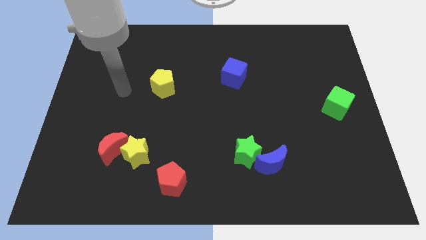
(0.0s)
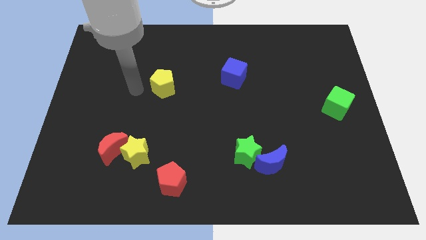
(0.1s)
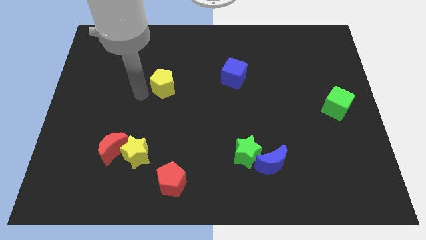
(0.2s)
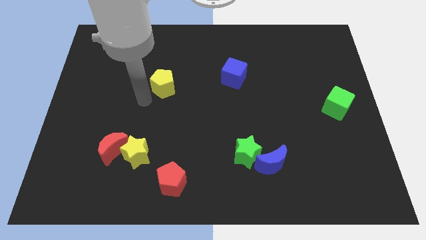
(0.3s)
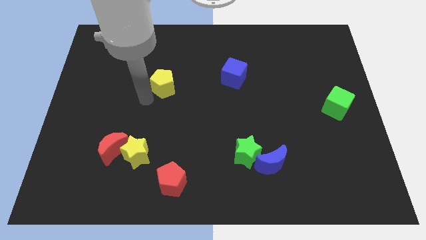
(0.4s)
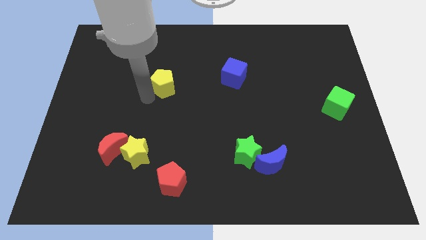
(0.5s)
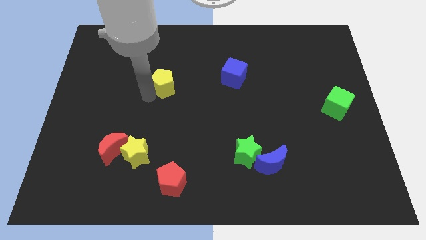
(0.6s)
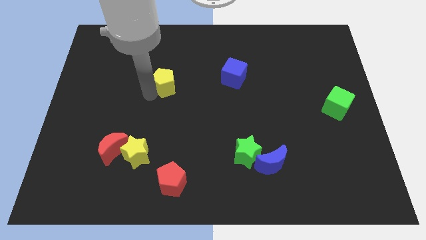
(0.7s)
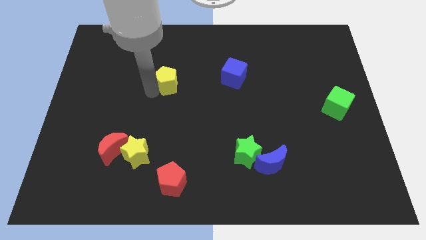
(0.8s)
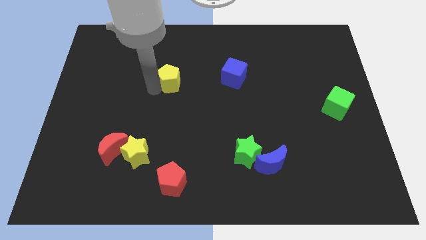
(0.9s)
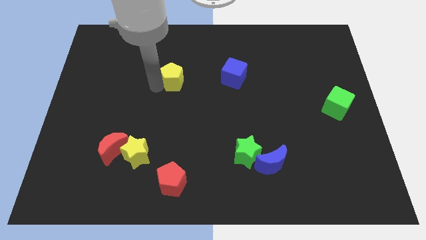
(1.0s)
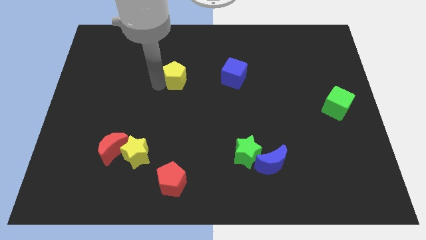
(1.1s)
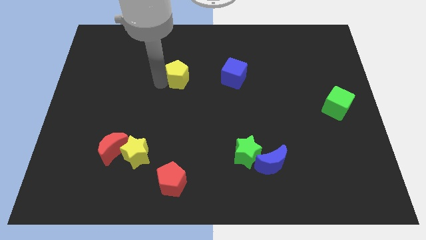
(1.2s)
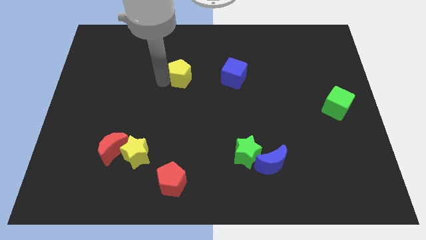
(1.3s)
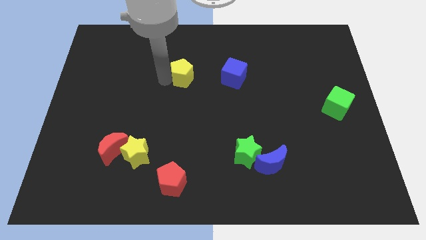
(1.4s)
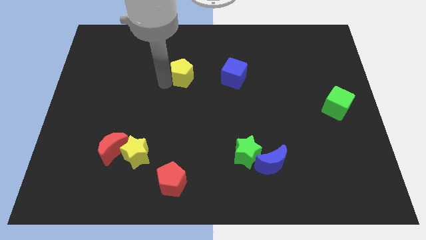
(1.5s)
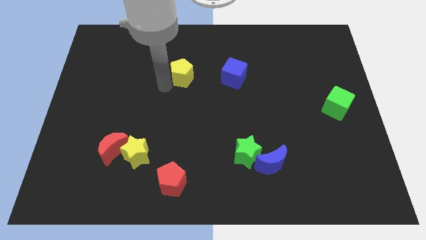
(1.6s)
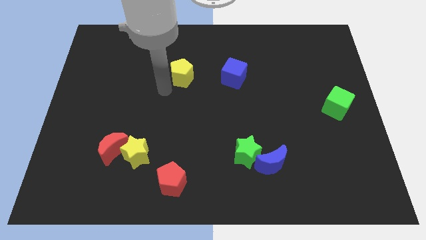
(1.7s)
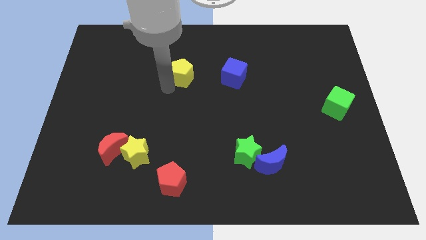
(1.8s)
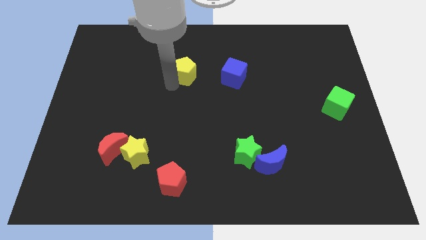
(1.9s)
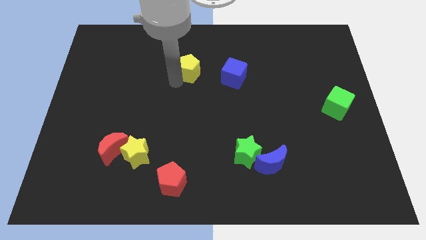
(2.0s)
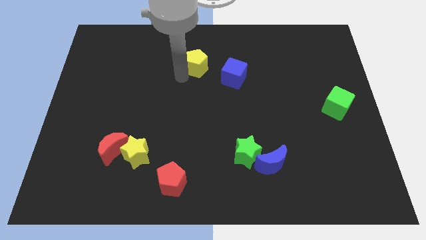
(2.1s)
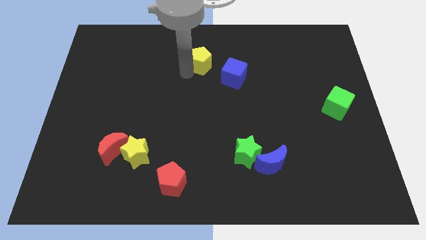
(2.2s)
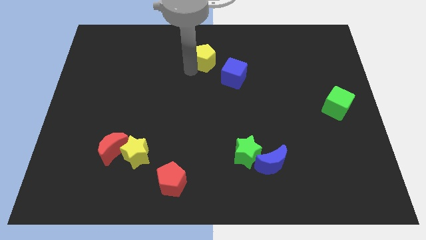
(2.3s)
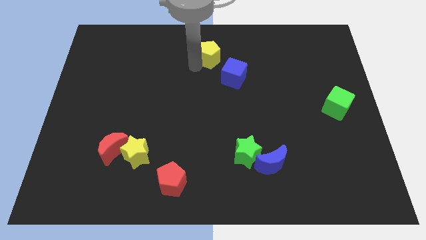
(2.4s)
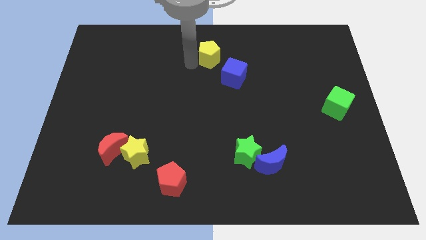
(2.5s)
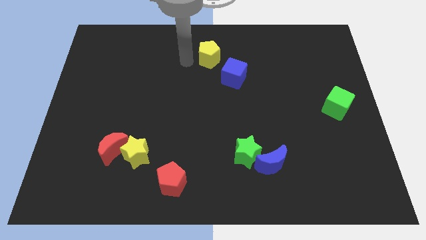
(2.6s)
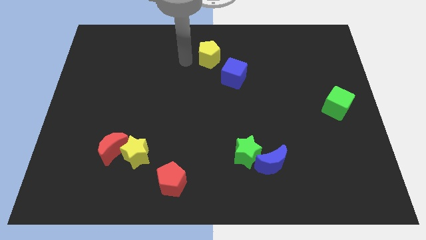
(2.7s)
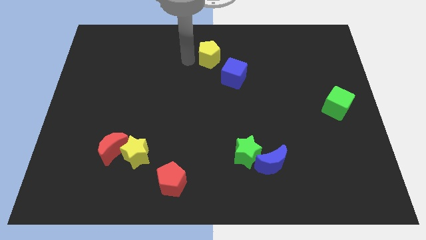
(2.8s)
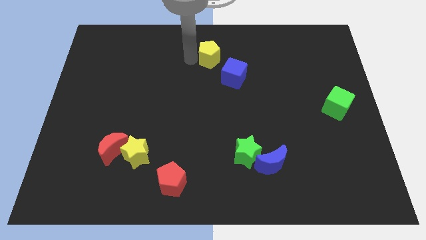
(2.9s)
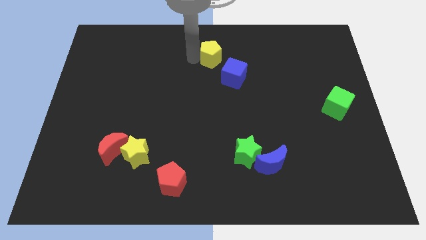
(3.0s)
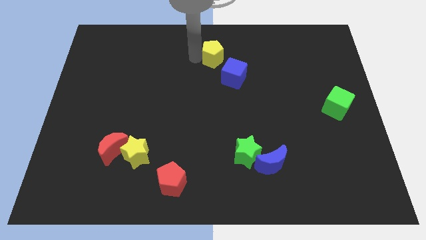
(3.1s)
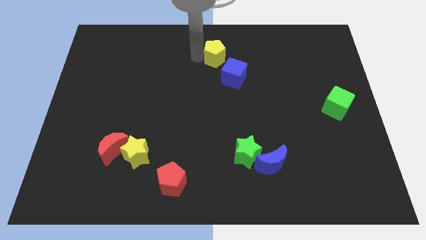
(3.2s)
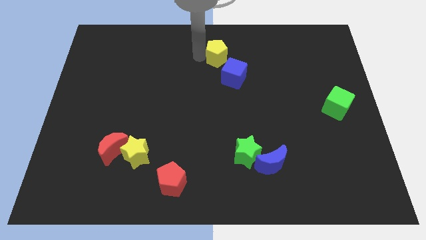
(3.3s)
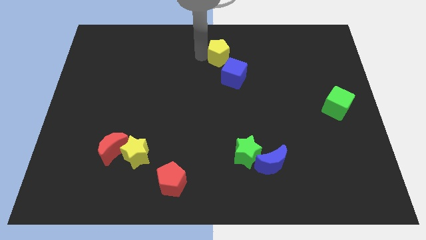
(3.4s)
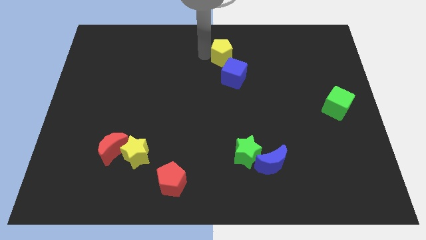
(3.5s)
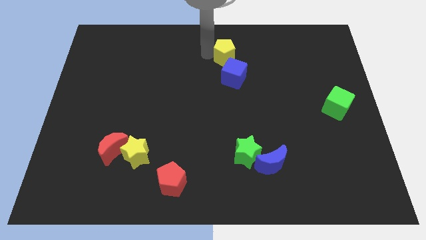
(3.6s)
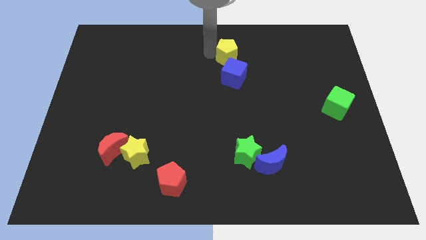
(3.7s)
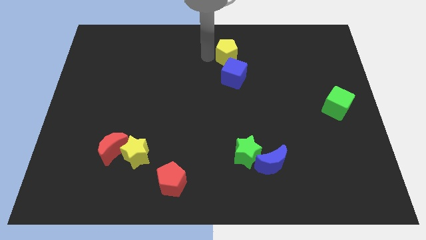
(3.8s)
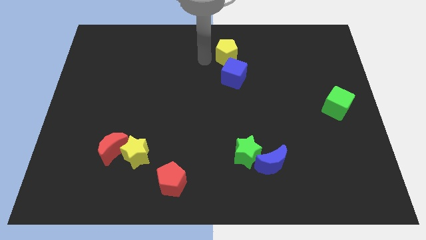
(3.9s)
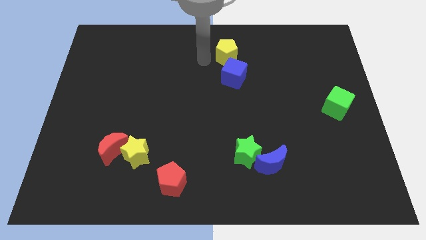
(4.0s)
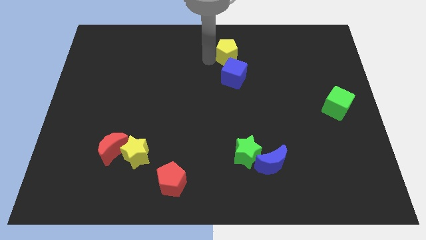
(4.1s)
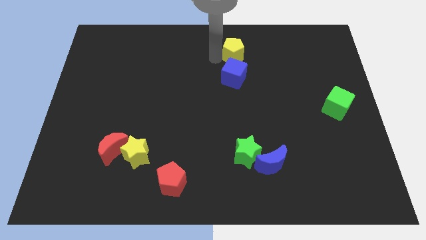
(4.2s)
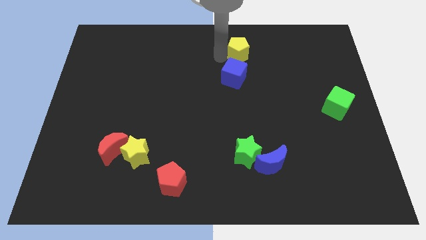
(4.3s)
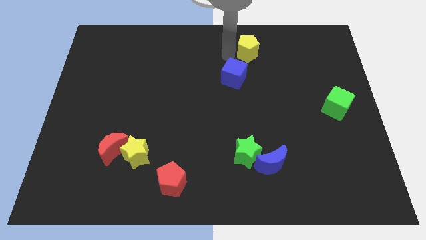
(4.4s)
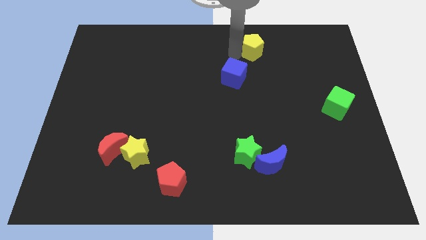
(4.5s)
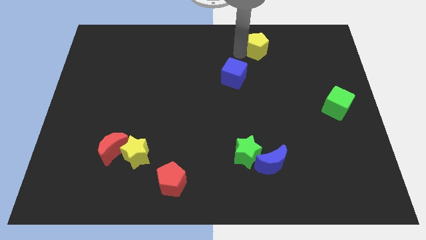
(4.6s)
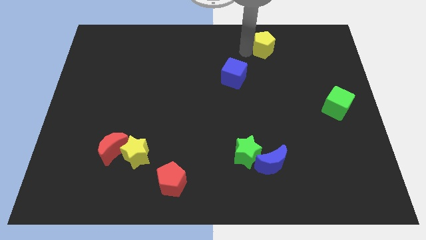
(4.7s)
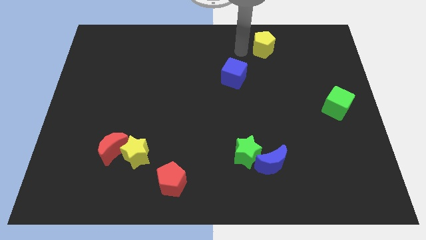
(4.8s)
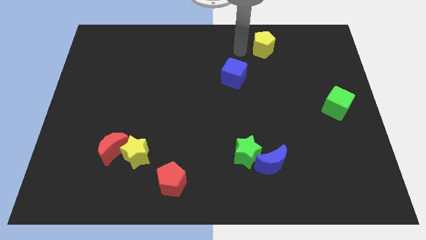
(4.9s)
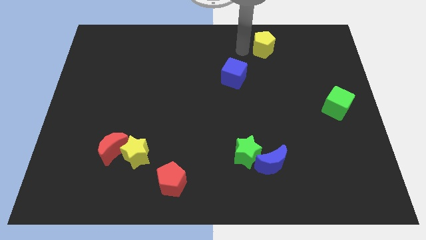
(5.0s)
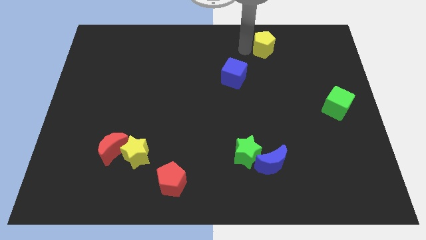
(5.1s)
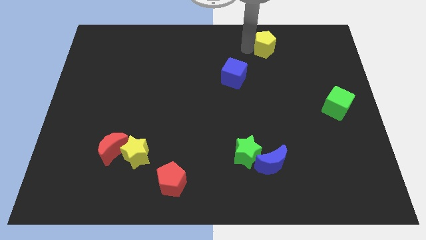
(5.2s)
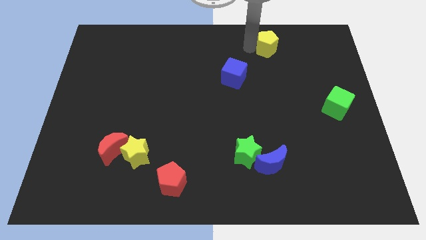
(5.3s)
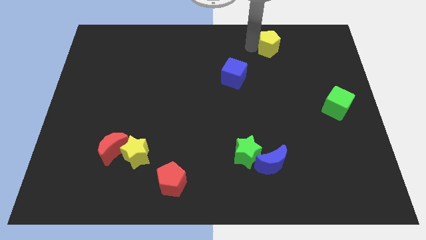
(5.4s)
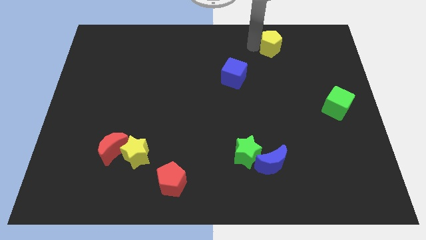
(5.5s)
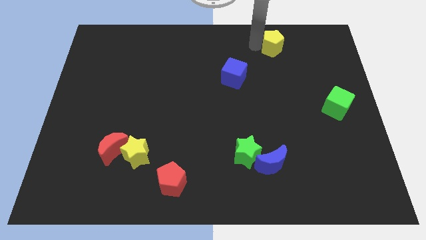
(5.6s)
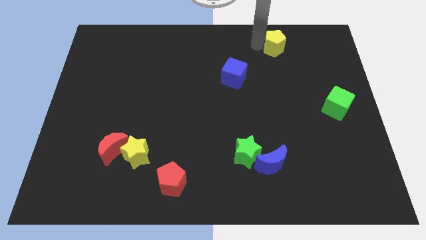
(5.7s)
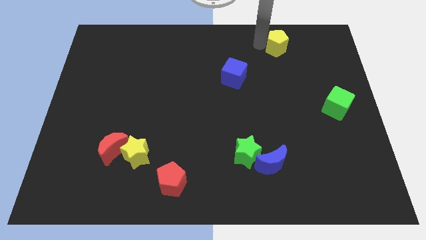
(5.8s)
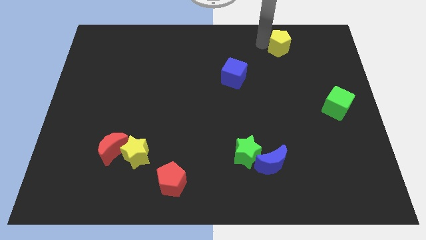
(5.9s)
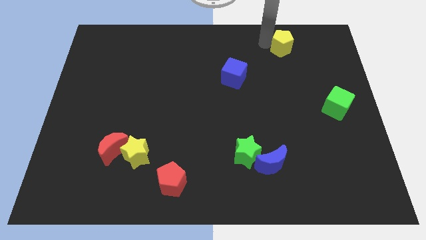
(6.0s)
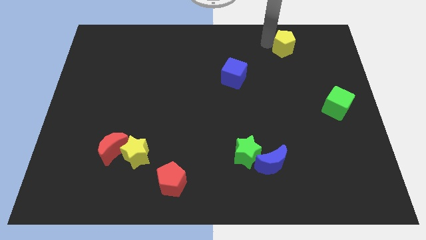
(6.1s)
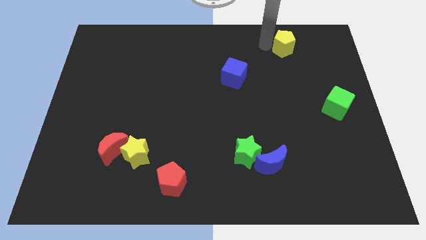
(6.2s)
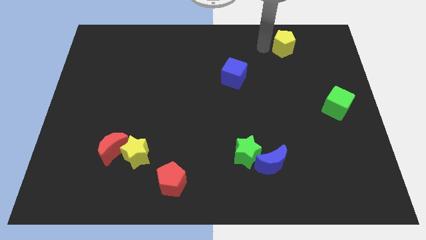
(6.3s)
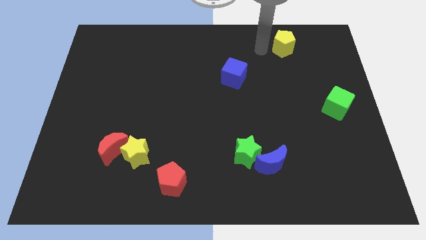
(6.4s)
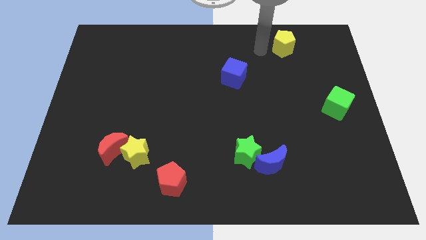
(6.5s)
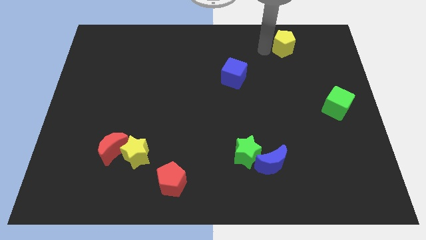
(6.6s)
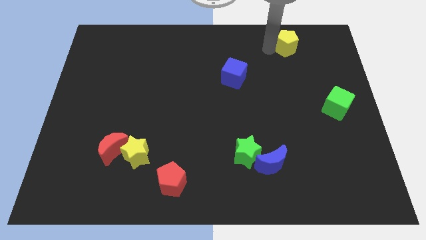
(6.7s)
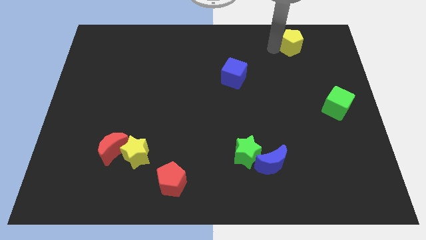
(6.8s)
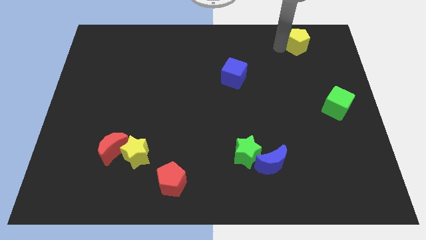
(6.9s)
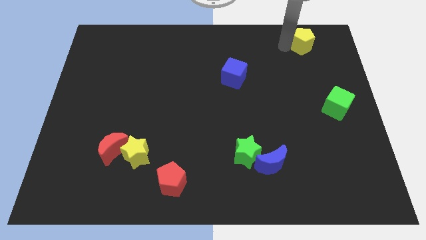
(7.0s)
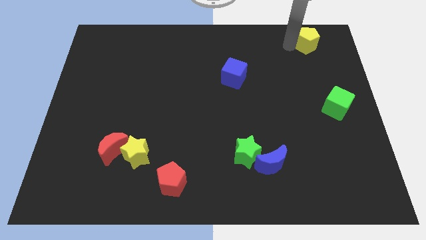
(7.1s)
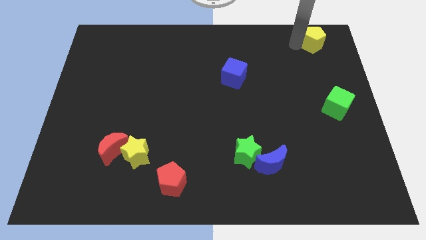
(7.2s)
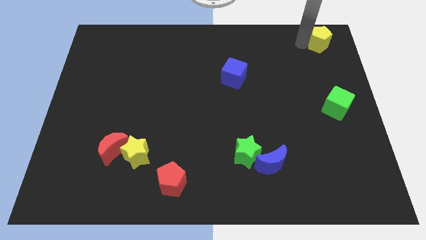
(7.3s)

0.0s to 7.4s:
move the yellow pentagon to the top right
